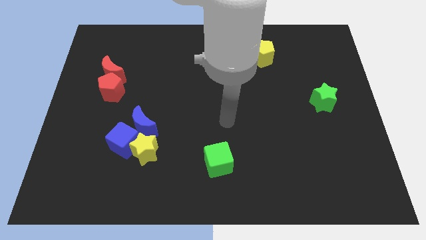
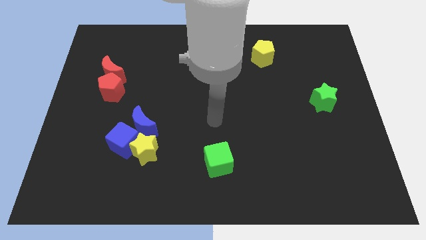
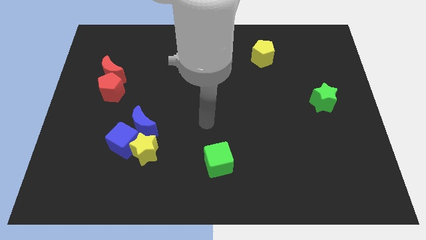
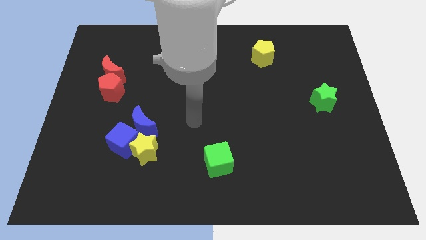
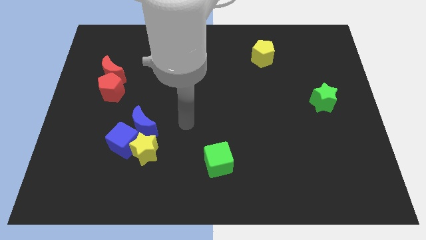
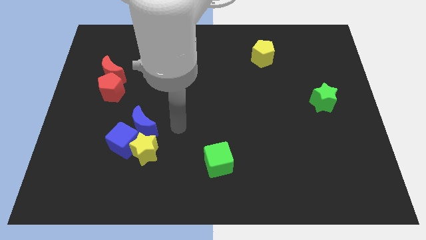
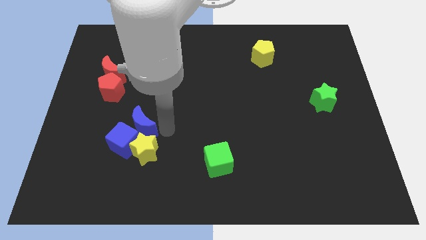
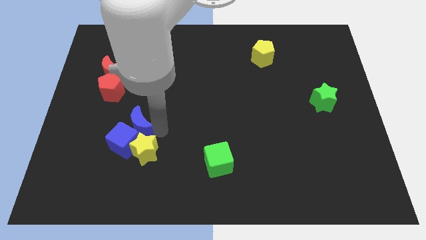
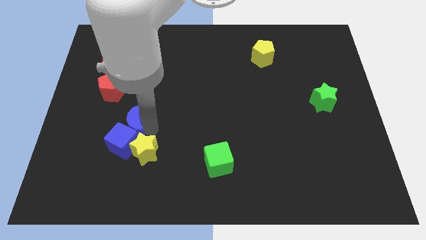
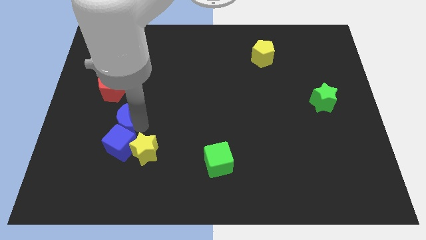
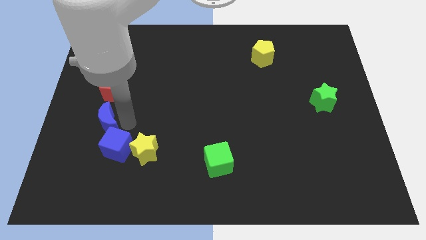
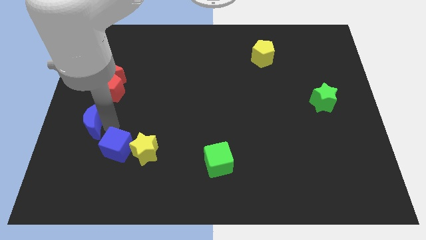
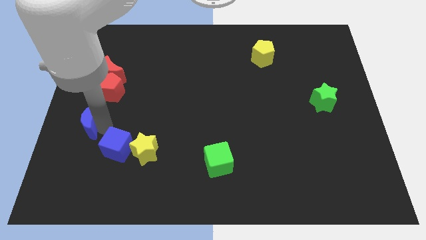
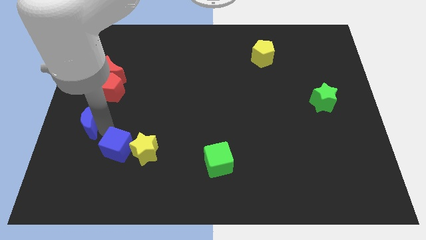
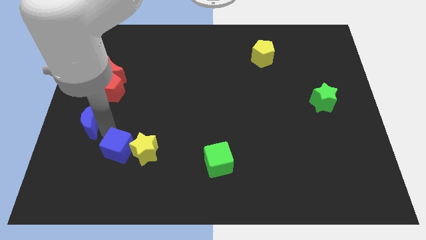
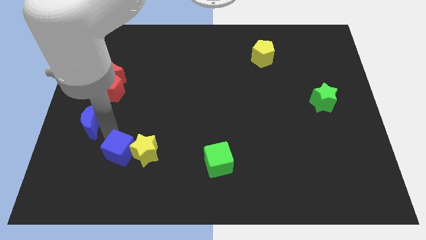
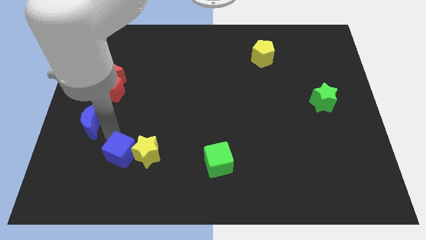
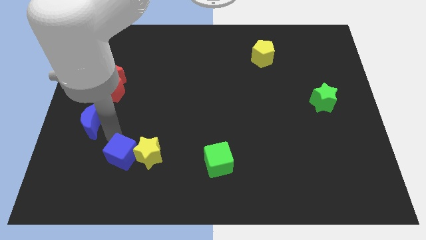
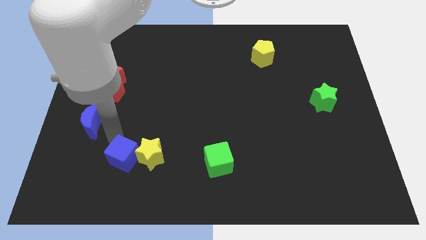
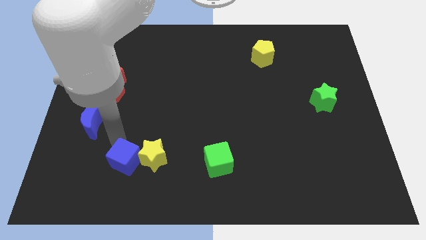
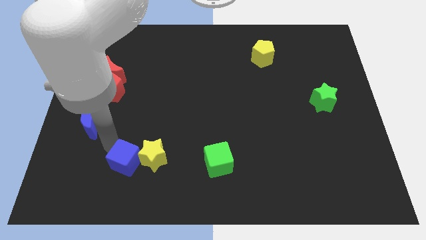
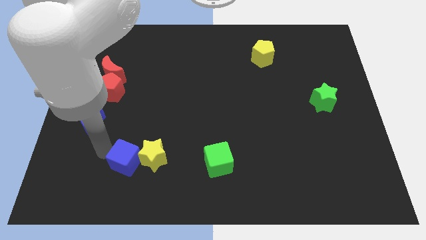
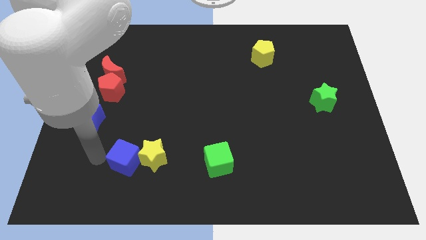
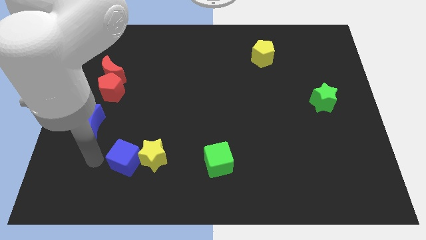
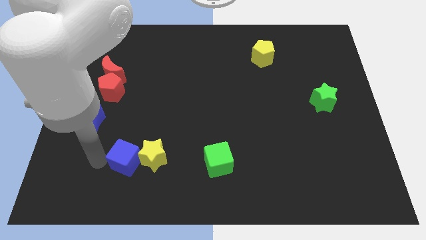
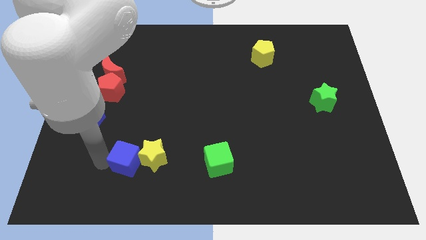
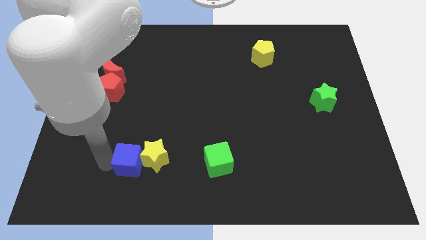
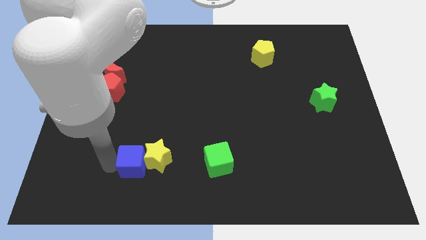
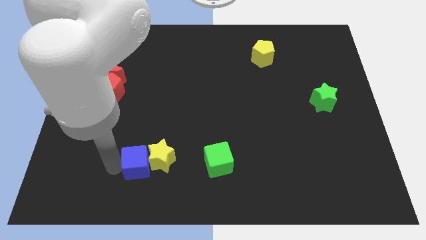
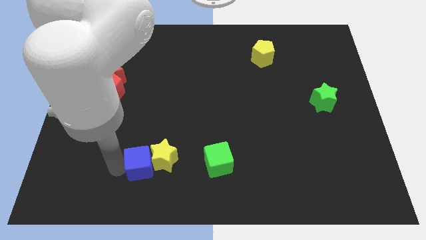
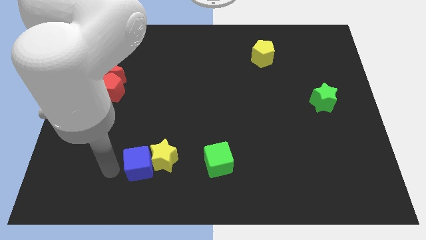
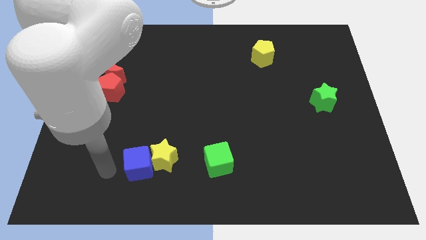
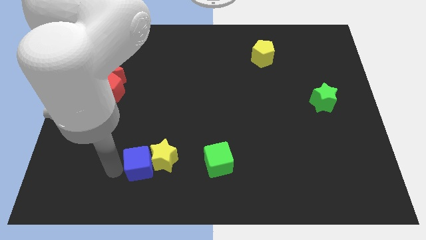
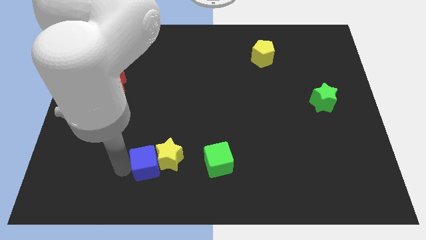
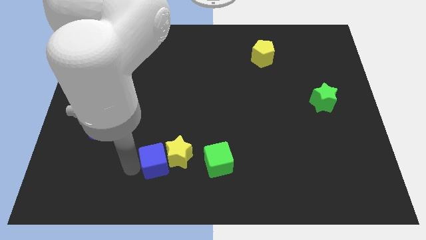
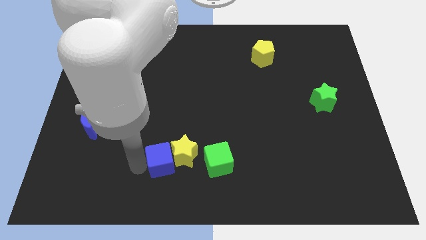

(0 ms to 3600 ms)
move the blue cube right slightly

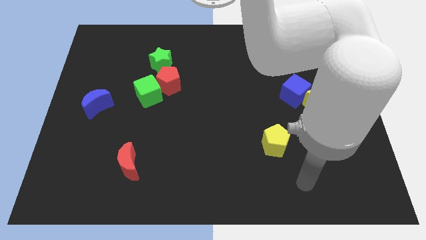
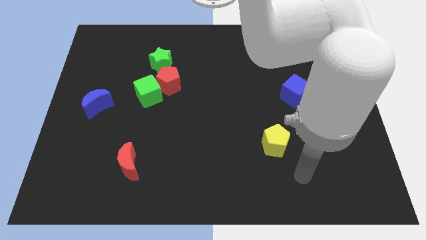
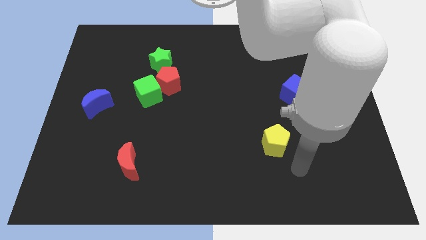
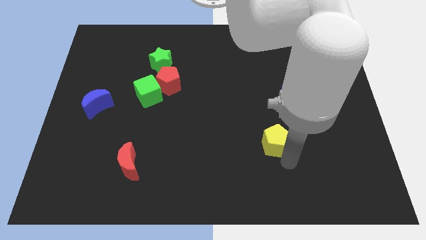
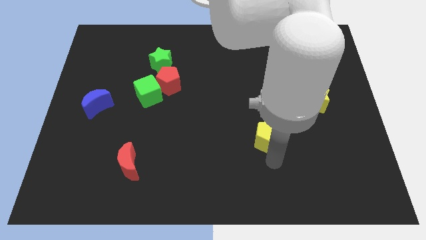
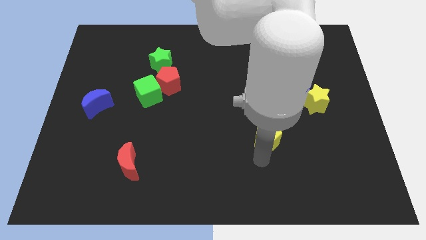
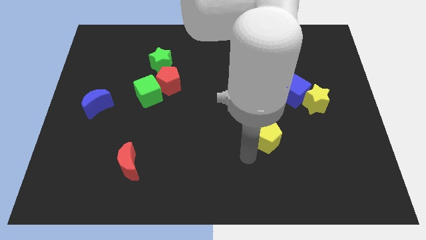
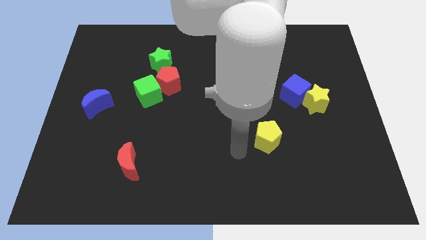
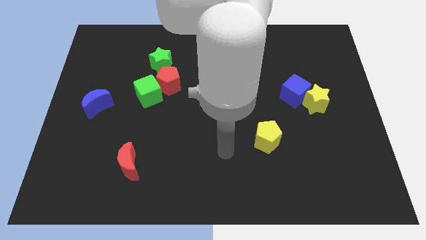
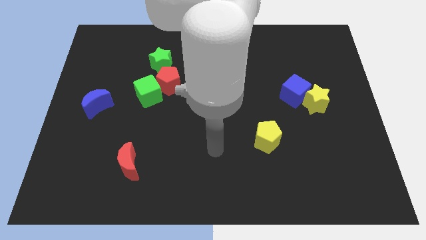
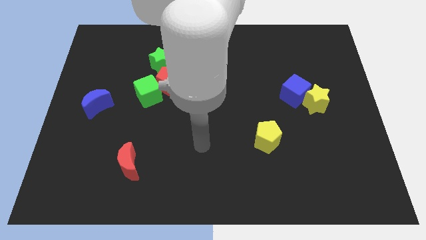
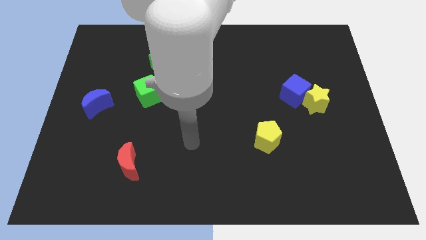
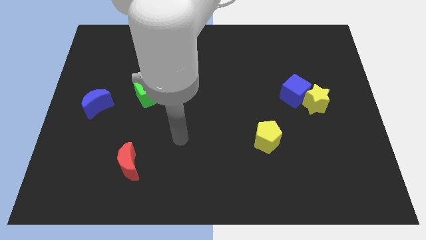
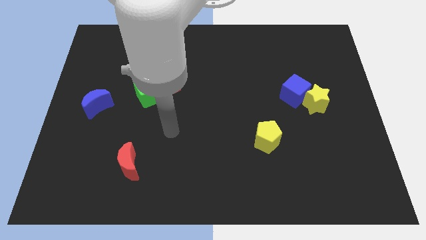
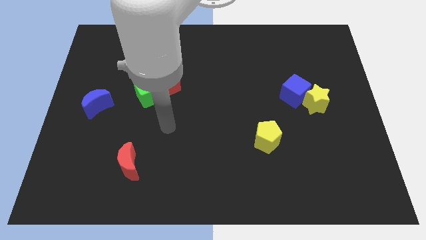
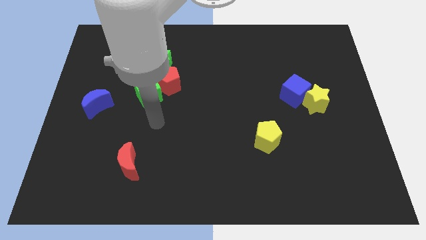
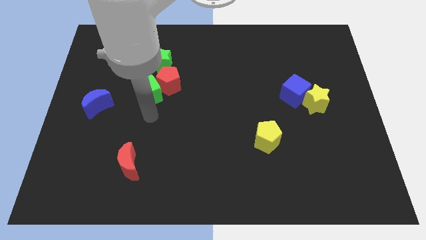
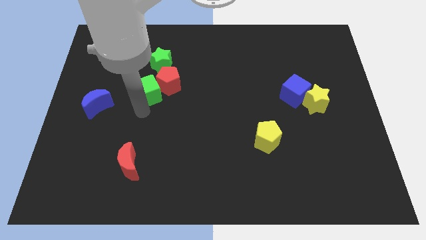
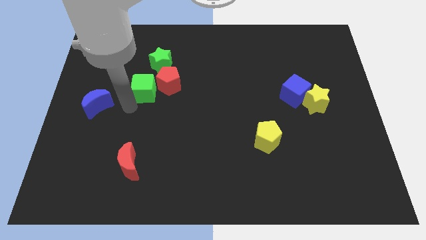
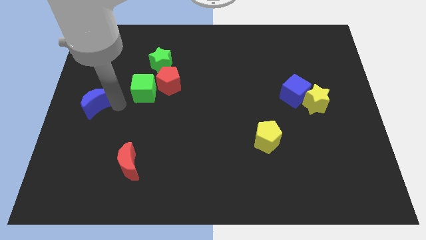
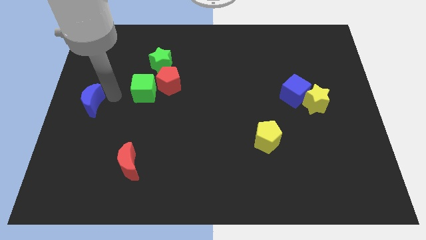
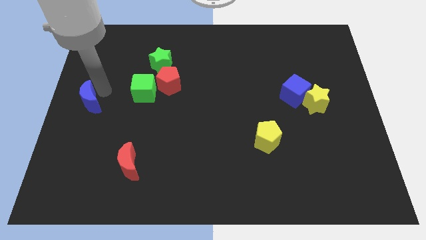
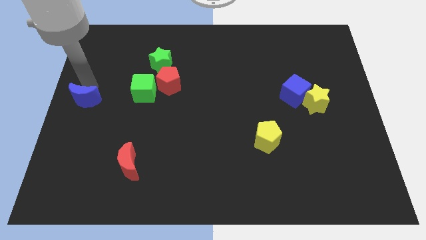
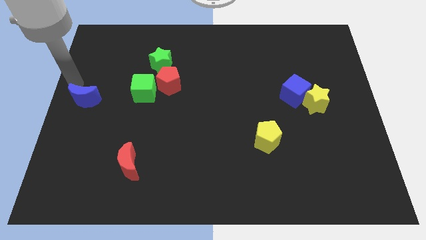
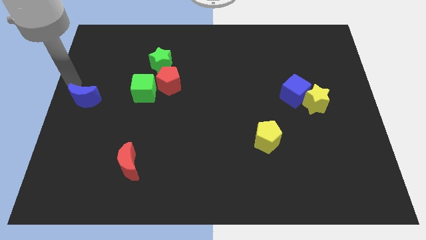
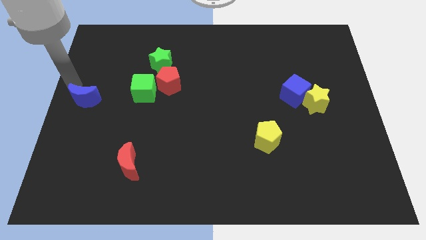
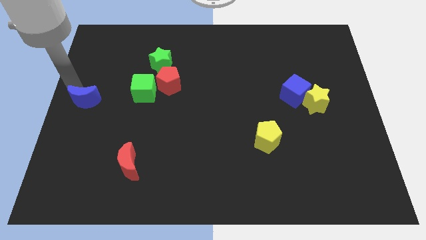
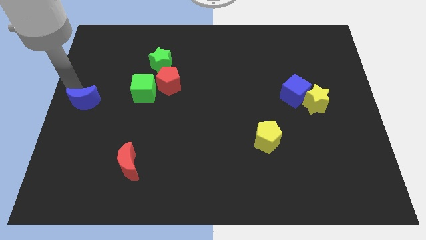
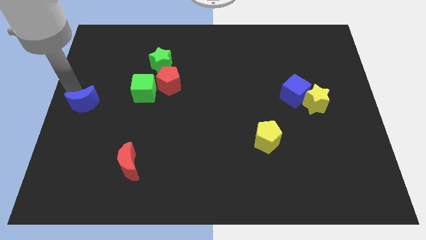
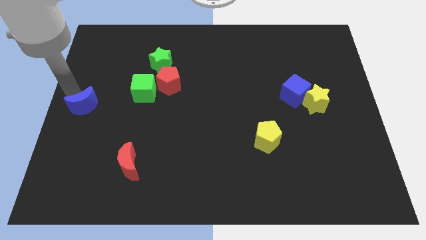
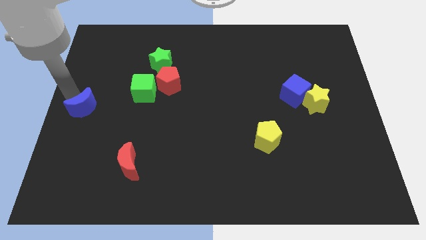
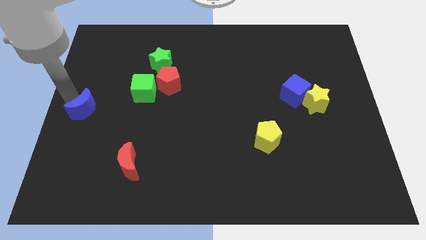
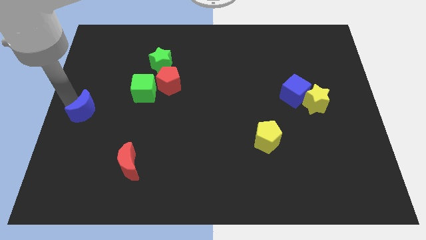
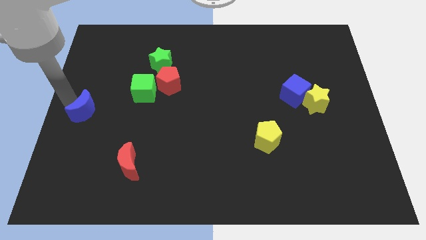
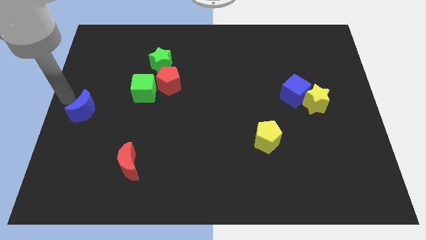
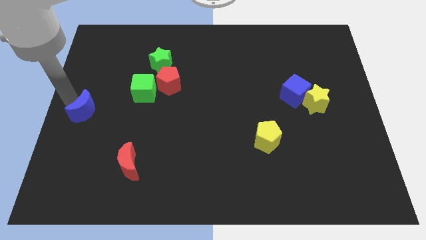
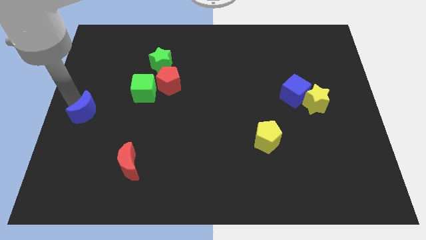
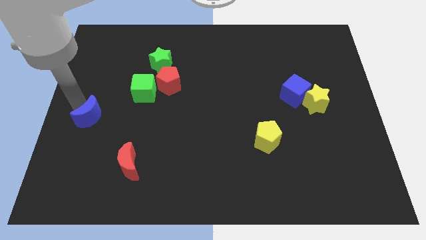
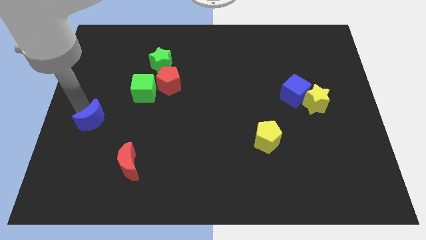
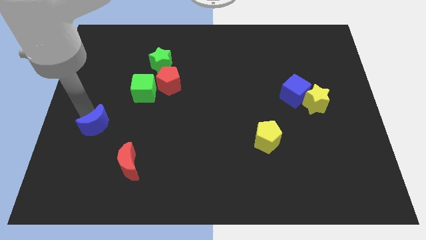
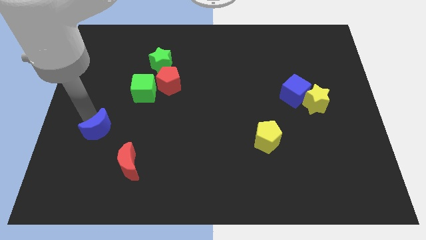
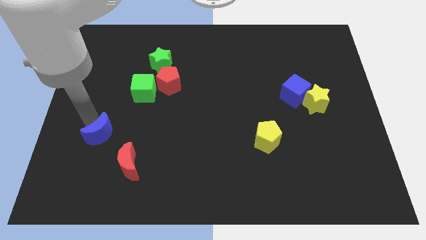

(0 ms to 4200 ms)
slide the blue moon downwards and right diagonally somewhat

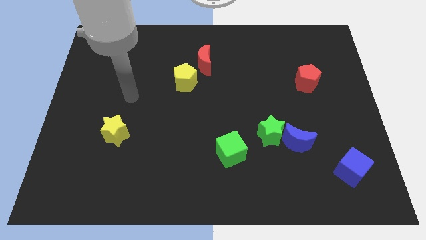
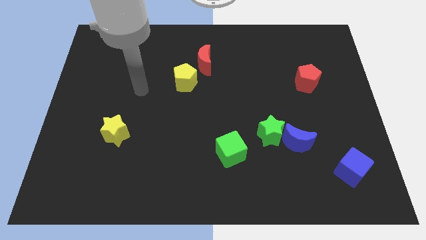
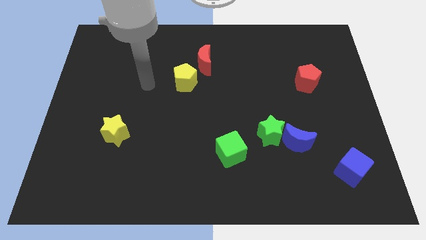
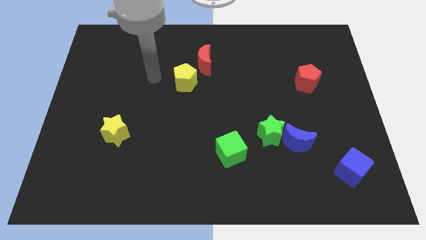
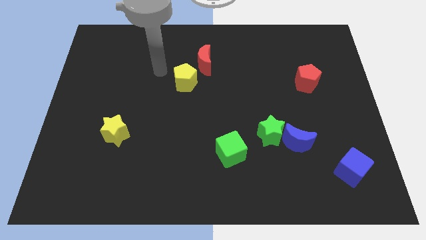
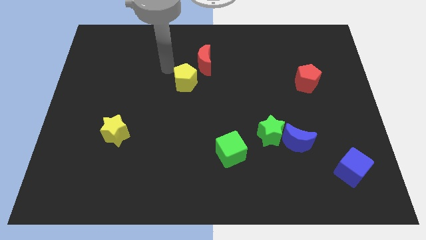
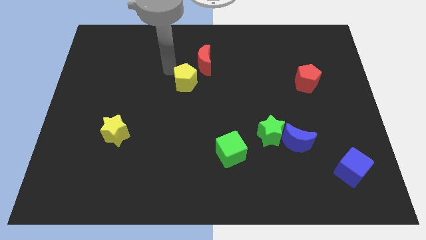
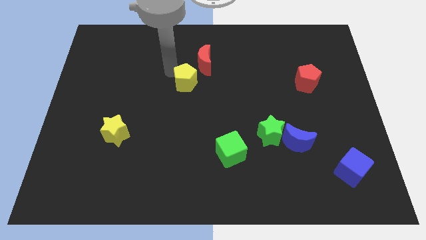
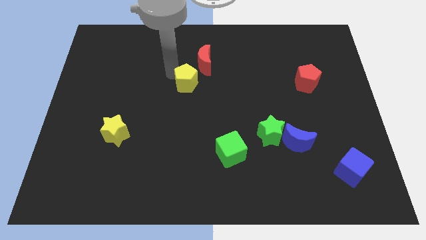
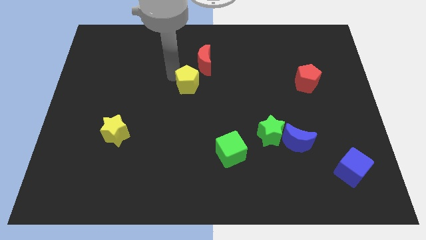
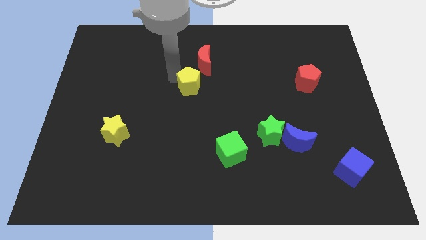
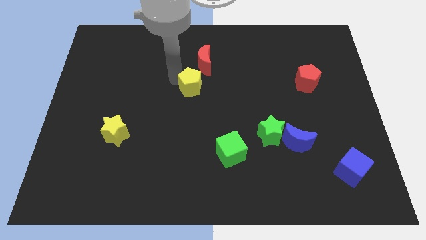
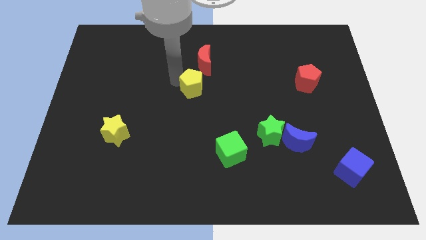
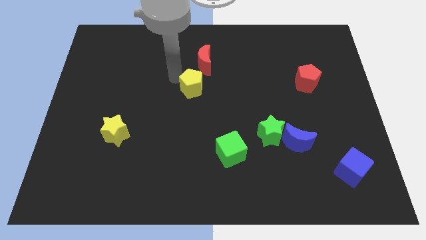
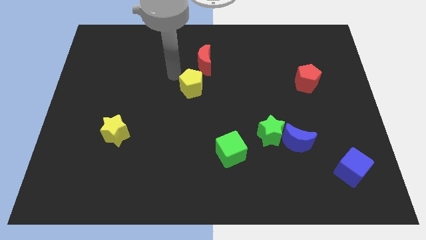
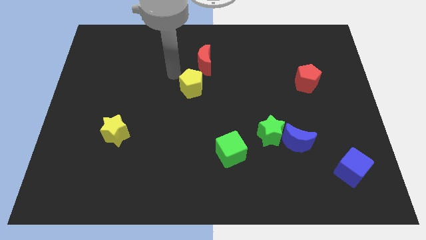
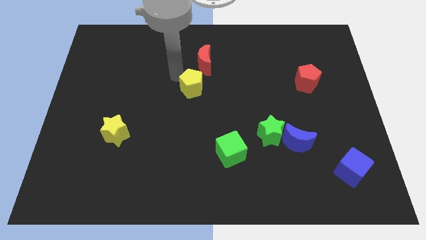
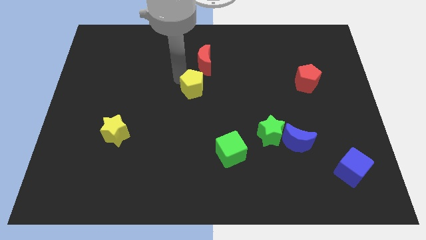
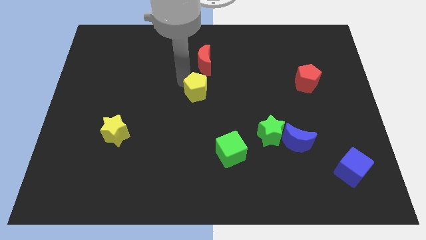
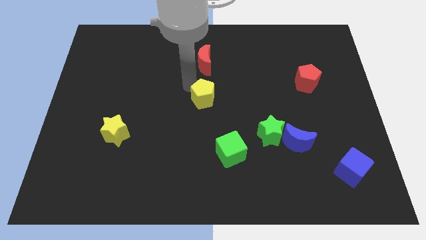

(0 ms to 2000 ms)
slide the yellow pentagon diagonally downwards and right a bit
